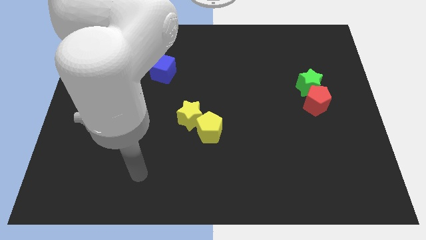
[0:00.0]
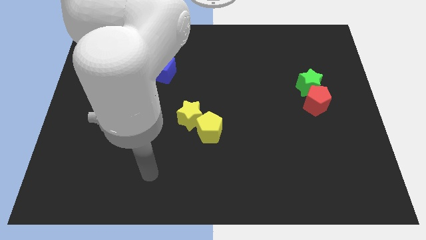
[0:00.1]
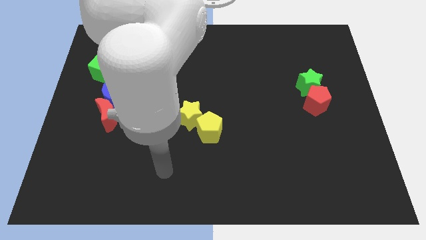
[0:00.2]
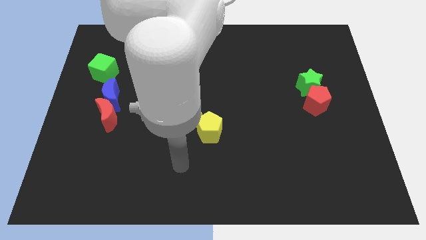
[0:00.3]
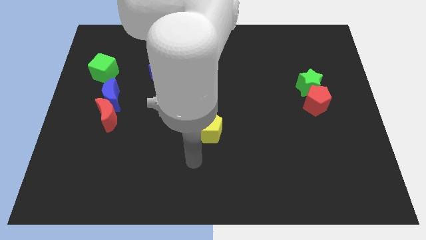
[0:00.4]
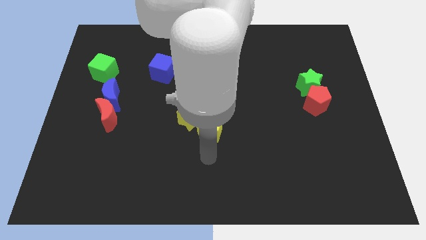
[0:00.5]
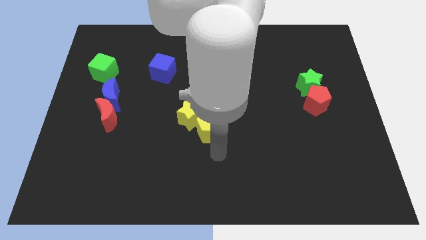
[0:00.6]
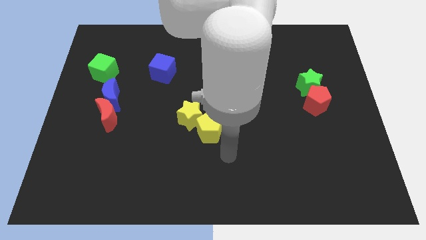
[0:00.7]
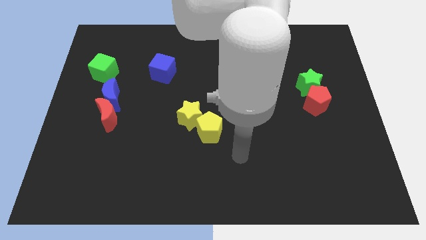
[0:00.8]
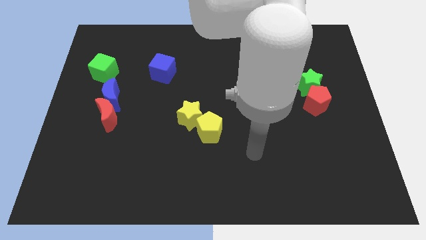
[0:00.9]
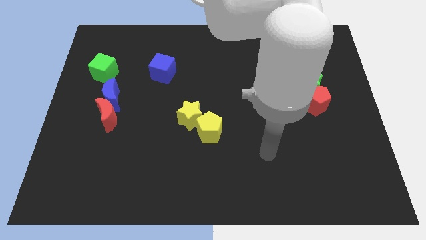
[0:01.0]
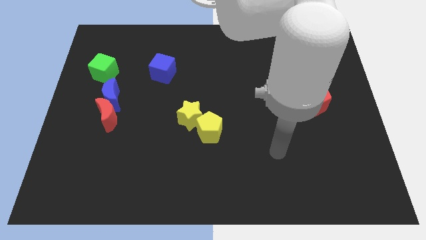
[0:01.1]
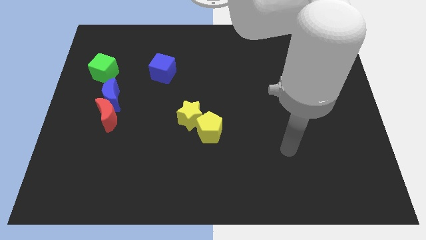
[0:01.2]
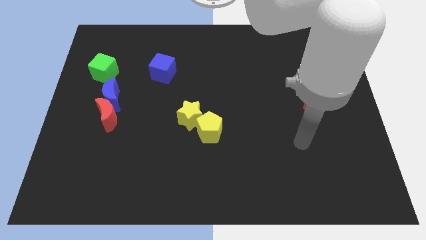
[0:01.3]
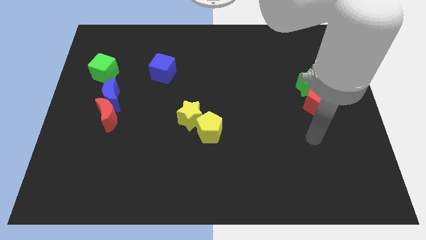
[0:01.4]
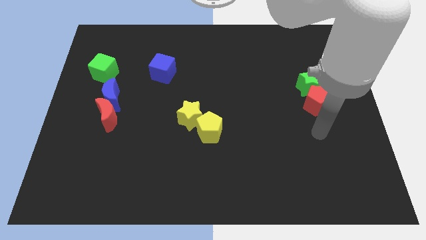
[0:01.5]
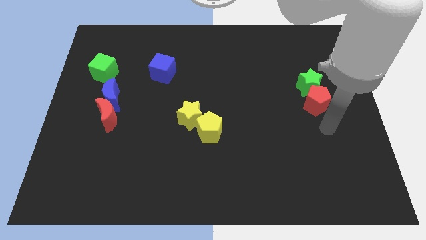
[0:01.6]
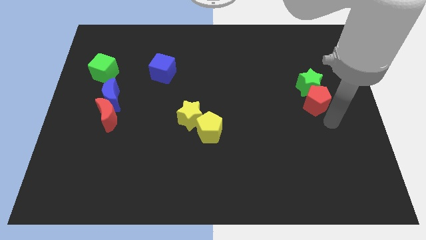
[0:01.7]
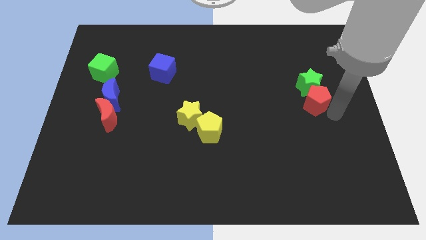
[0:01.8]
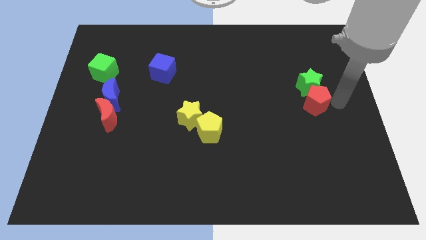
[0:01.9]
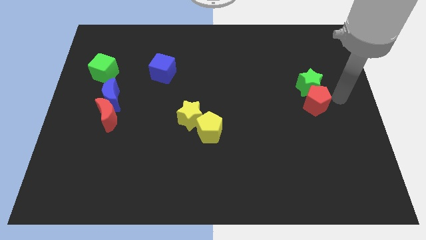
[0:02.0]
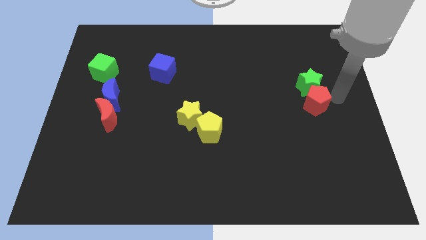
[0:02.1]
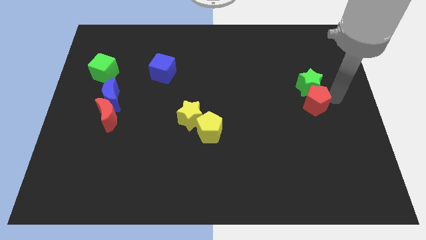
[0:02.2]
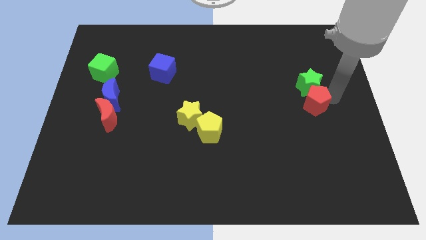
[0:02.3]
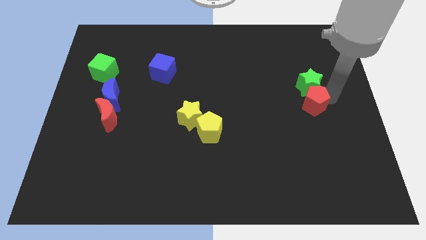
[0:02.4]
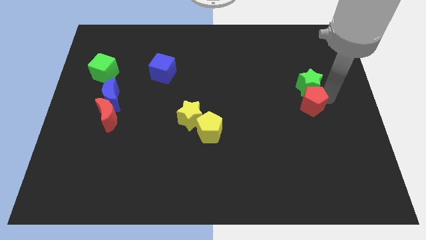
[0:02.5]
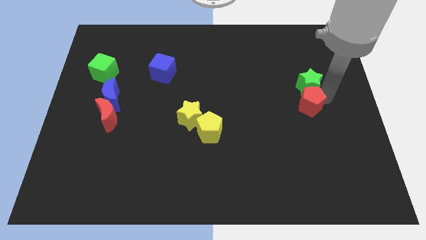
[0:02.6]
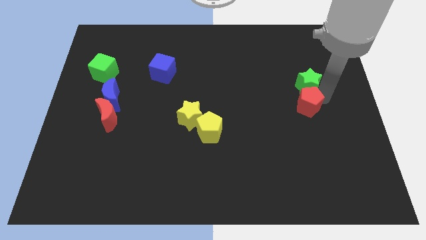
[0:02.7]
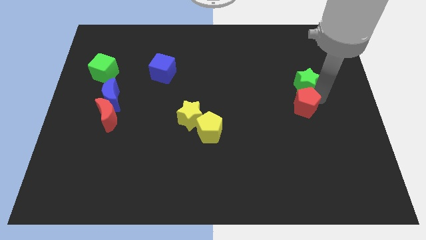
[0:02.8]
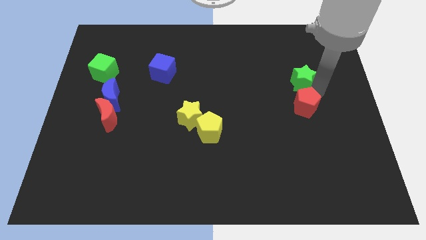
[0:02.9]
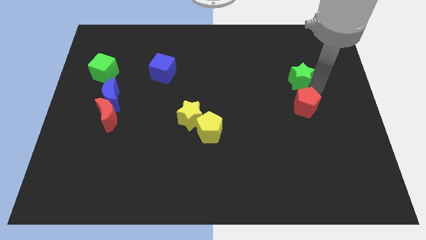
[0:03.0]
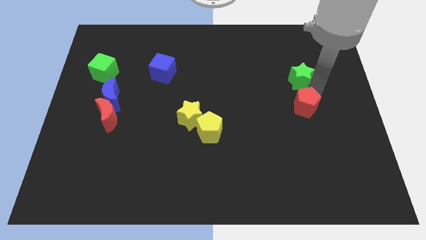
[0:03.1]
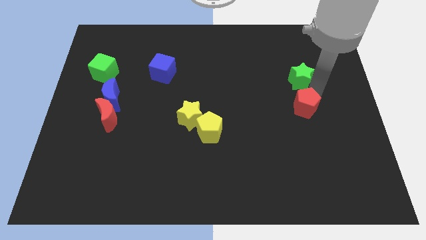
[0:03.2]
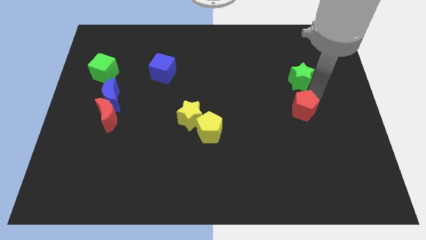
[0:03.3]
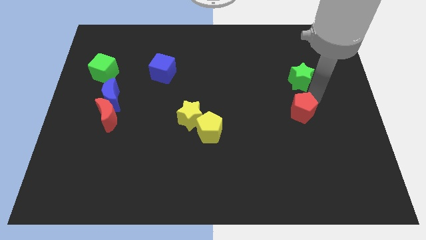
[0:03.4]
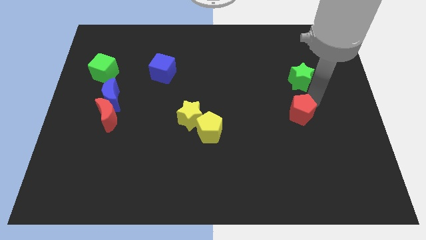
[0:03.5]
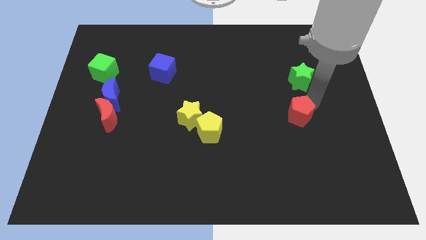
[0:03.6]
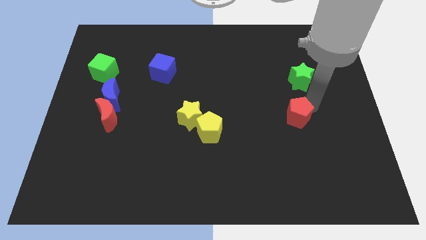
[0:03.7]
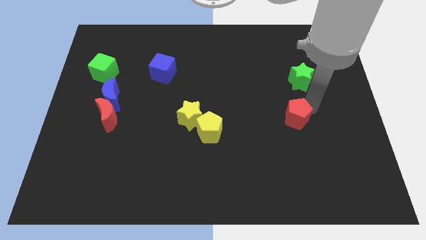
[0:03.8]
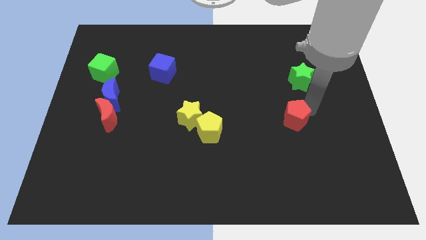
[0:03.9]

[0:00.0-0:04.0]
slightly move the red pentagon diagonally down and left

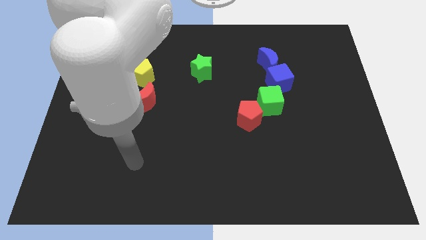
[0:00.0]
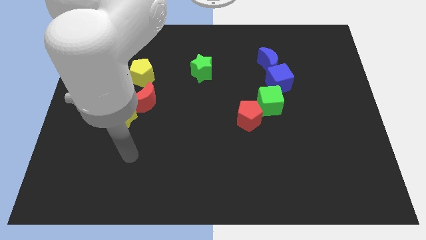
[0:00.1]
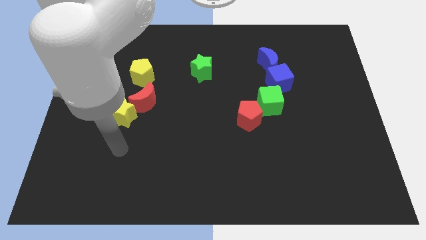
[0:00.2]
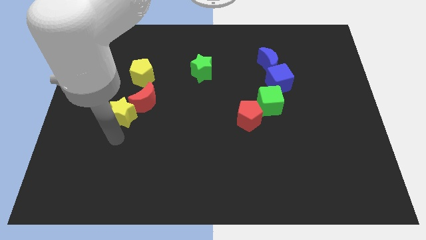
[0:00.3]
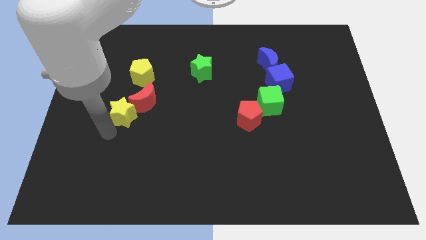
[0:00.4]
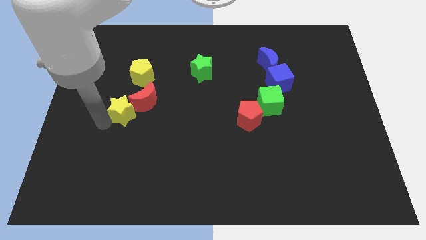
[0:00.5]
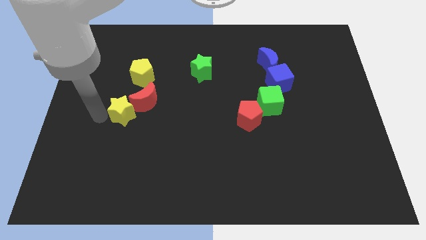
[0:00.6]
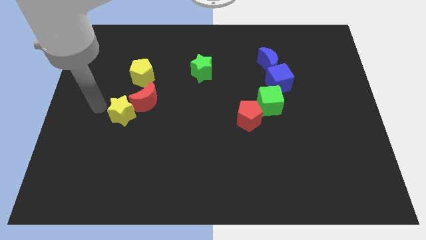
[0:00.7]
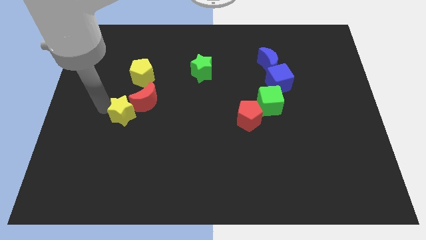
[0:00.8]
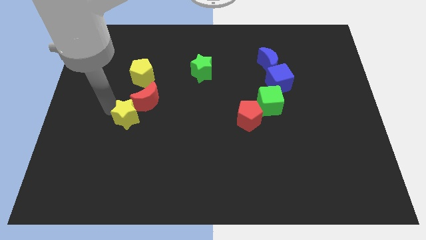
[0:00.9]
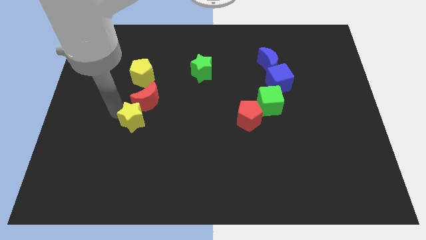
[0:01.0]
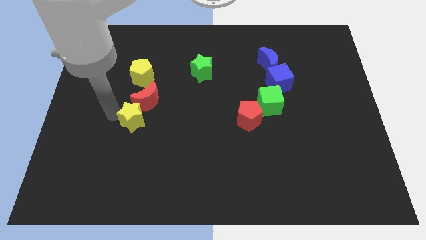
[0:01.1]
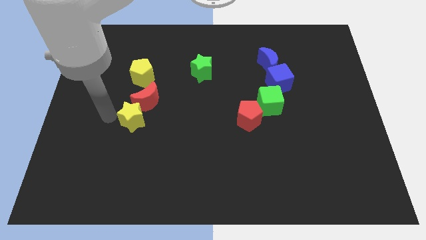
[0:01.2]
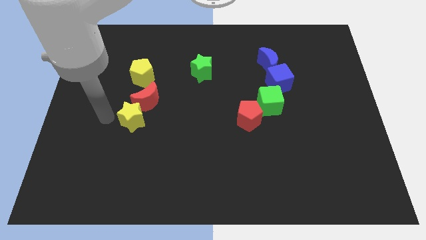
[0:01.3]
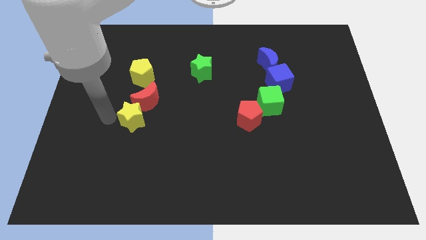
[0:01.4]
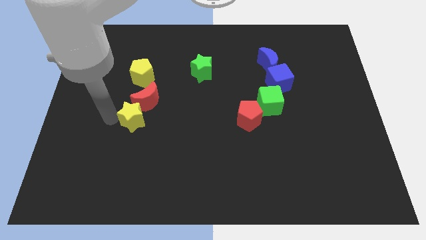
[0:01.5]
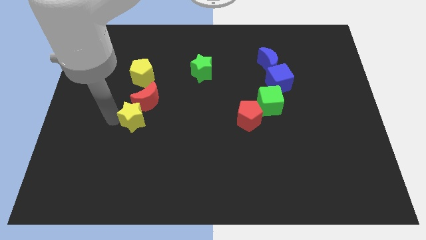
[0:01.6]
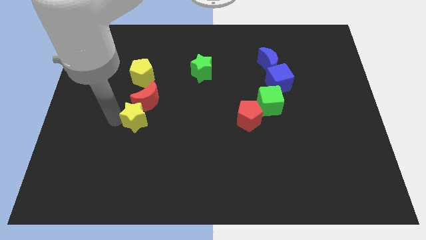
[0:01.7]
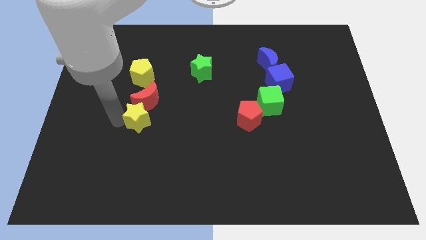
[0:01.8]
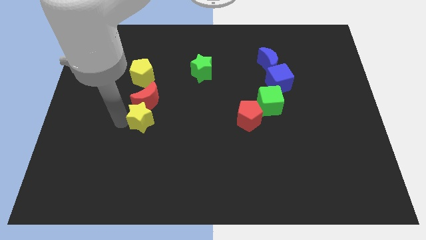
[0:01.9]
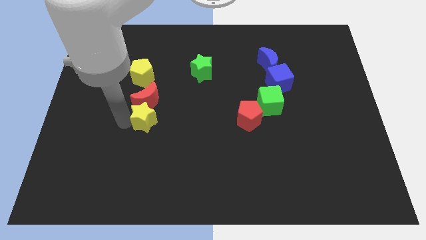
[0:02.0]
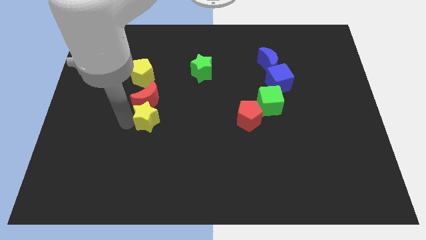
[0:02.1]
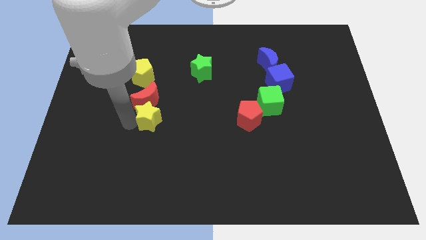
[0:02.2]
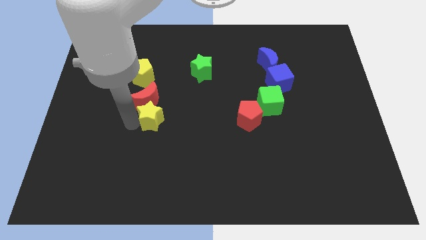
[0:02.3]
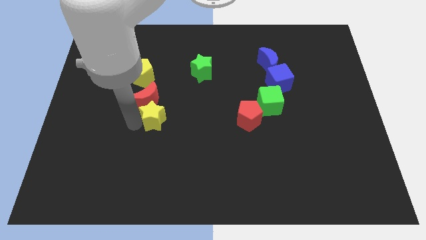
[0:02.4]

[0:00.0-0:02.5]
slightly slide the yellow star right

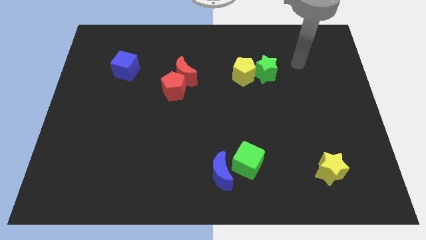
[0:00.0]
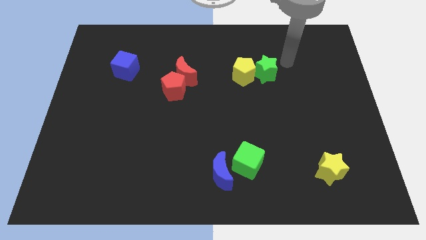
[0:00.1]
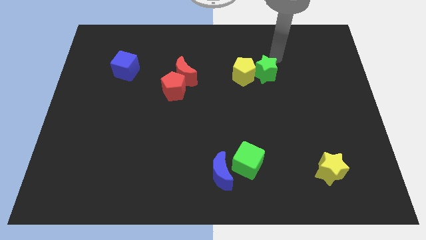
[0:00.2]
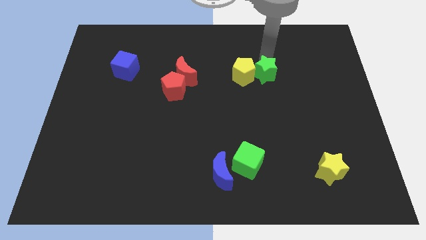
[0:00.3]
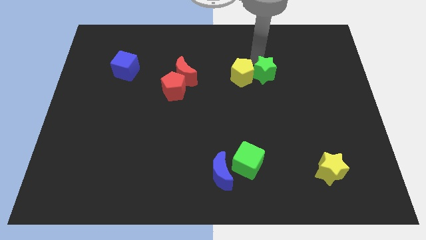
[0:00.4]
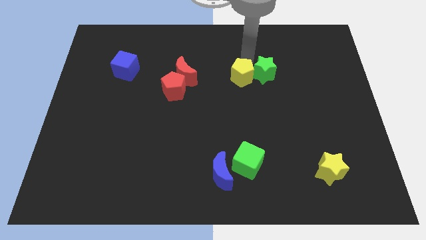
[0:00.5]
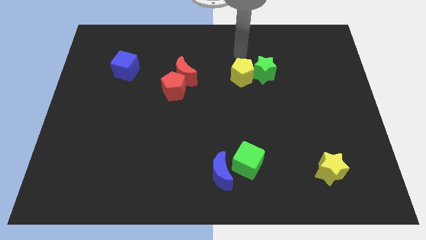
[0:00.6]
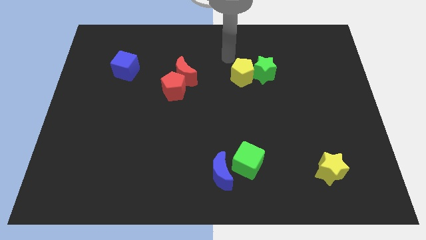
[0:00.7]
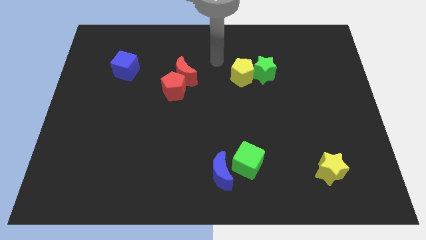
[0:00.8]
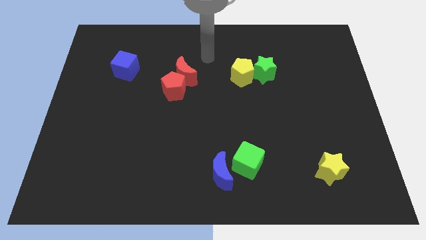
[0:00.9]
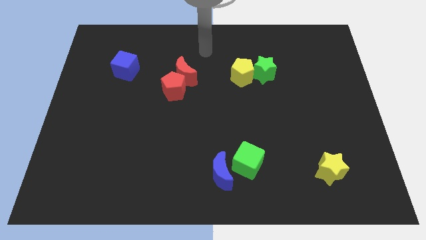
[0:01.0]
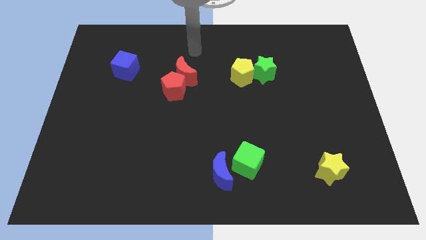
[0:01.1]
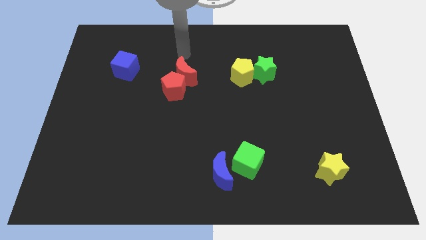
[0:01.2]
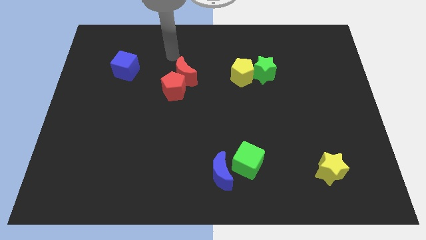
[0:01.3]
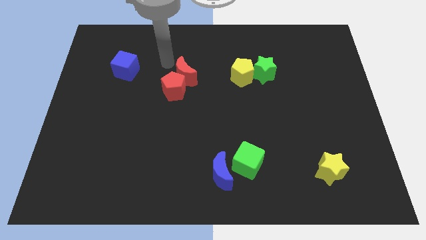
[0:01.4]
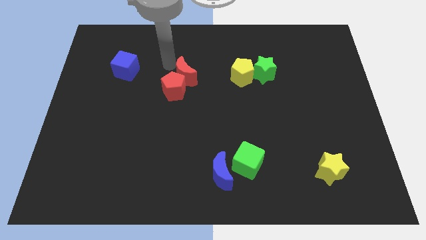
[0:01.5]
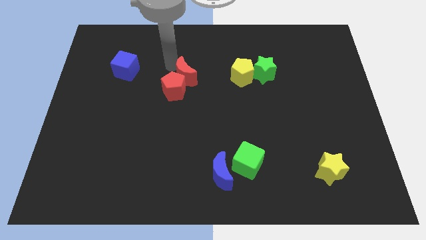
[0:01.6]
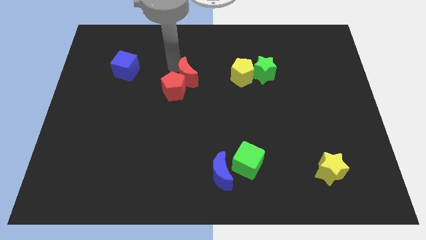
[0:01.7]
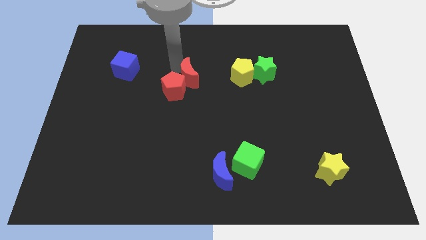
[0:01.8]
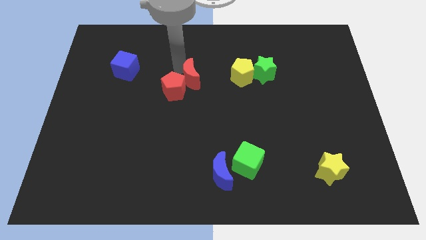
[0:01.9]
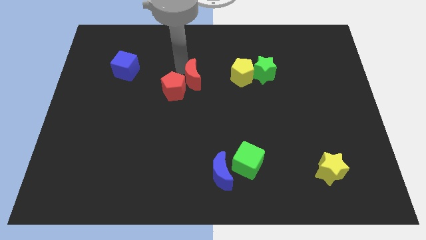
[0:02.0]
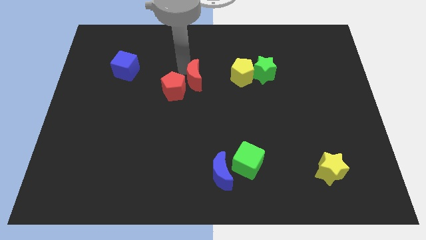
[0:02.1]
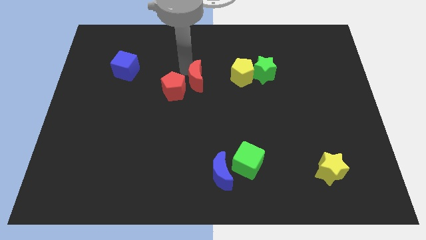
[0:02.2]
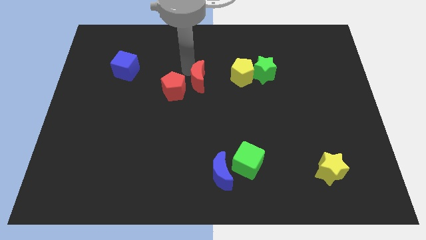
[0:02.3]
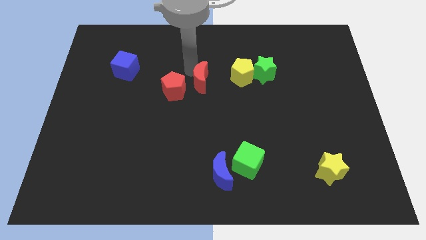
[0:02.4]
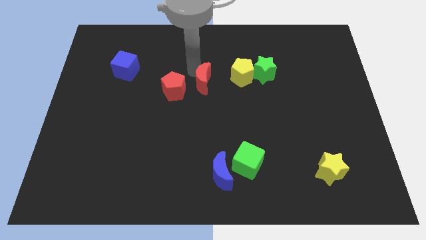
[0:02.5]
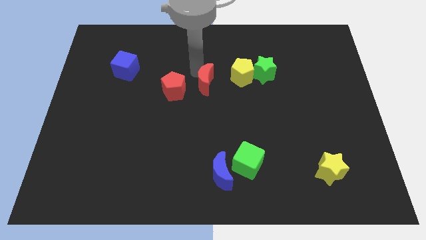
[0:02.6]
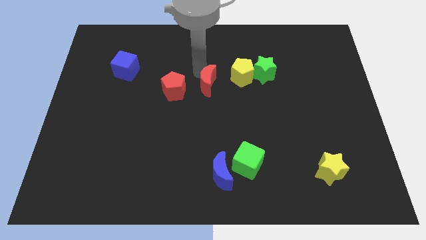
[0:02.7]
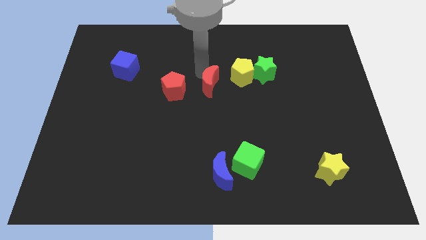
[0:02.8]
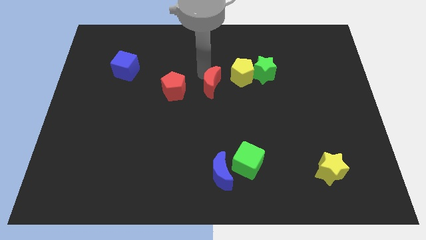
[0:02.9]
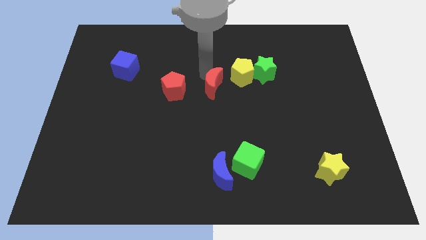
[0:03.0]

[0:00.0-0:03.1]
slide the red moon down and then to the right slightly
